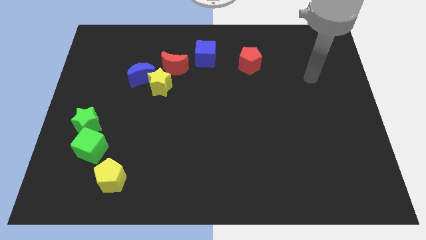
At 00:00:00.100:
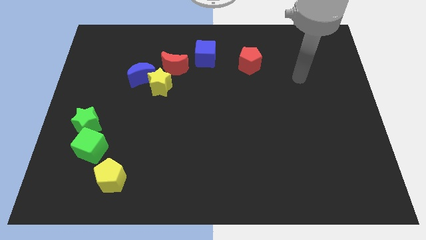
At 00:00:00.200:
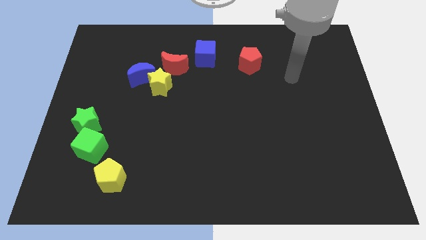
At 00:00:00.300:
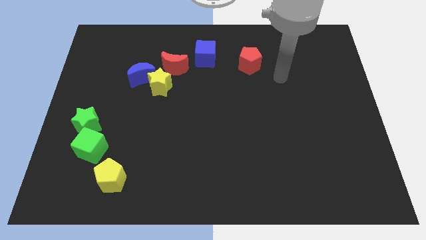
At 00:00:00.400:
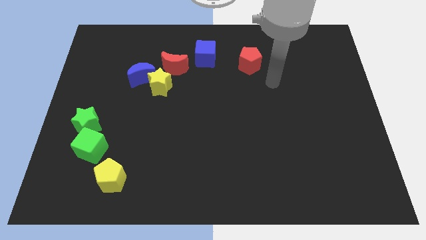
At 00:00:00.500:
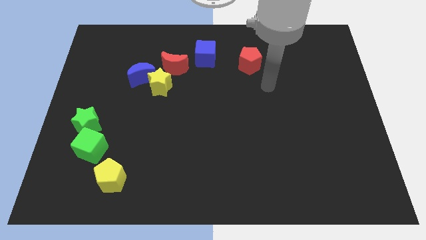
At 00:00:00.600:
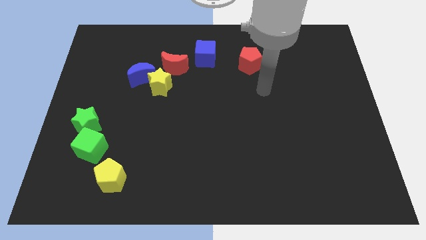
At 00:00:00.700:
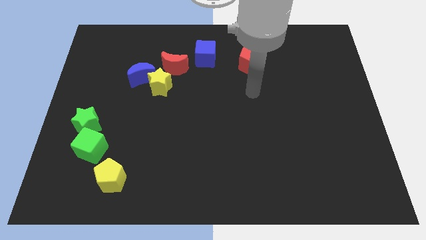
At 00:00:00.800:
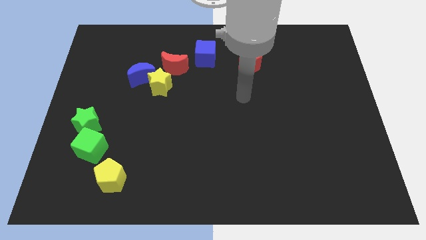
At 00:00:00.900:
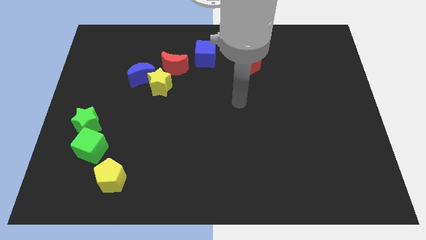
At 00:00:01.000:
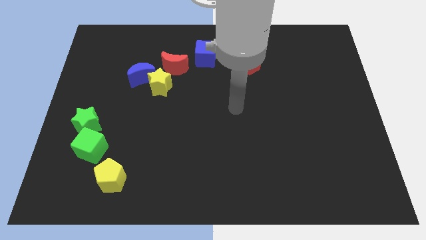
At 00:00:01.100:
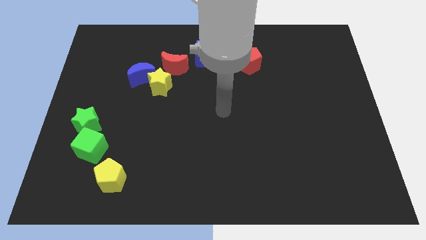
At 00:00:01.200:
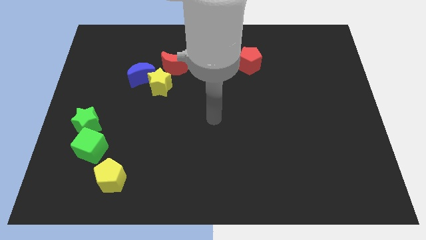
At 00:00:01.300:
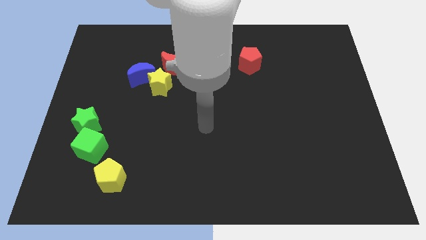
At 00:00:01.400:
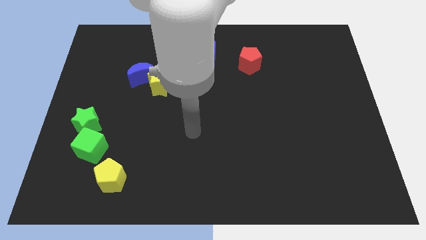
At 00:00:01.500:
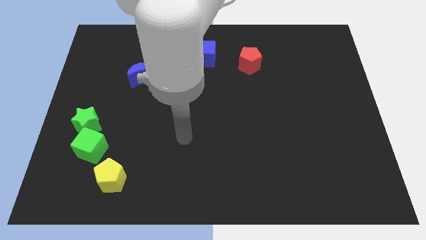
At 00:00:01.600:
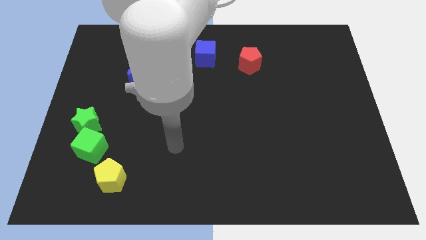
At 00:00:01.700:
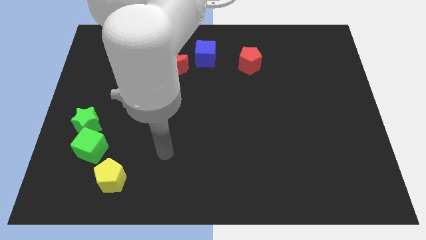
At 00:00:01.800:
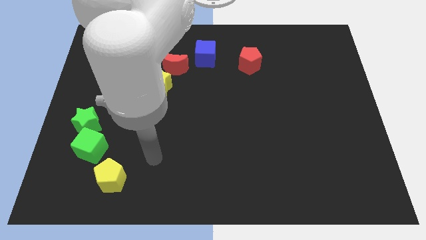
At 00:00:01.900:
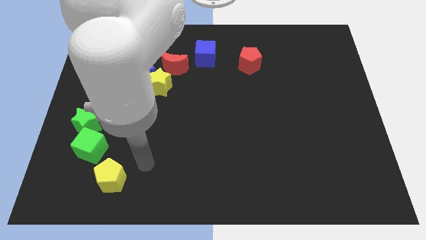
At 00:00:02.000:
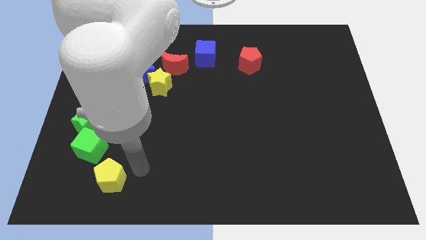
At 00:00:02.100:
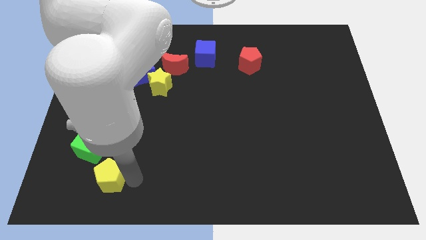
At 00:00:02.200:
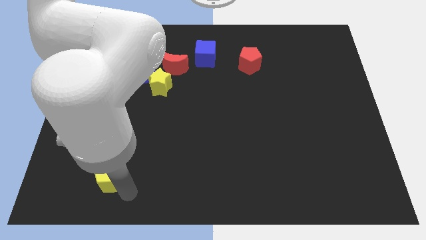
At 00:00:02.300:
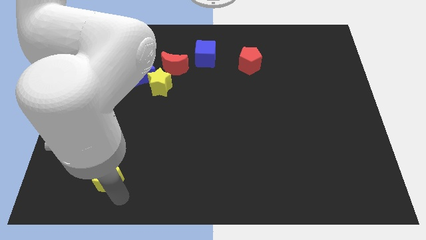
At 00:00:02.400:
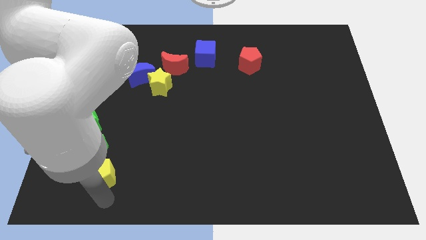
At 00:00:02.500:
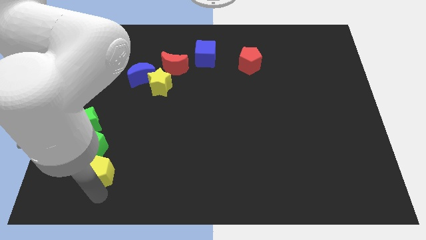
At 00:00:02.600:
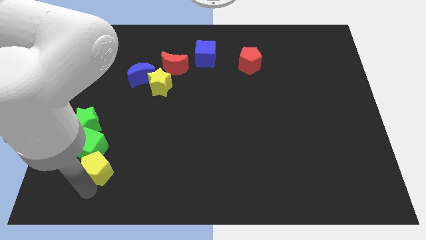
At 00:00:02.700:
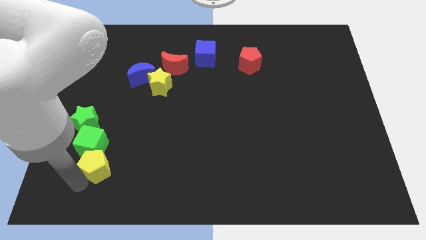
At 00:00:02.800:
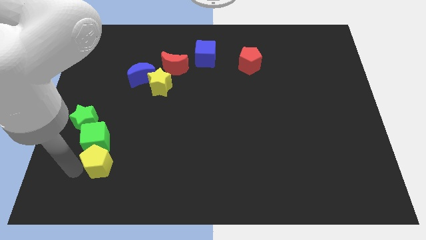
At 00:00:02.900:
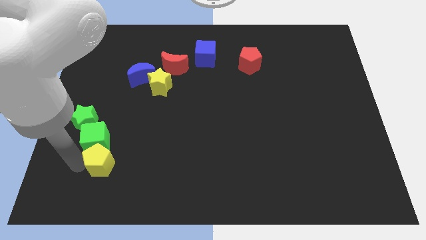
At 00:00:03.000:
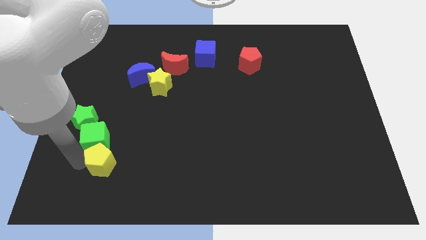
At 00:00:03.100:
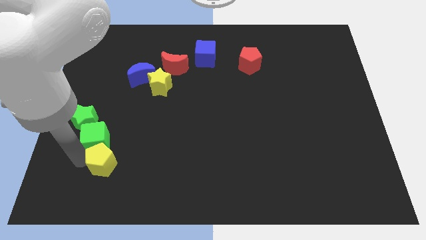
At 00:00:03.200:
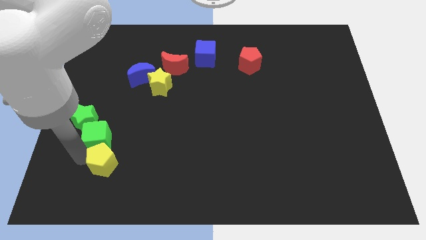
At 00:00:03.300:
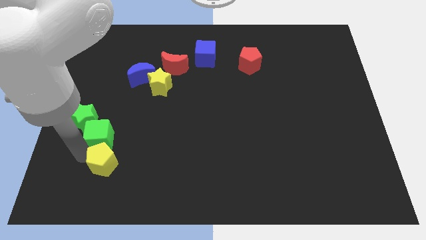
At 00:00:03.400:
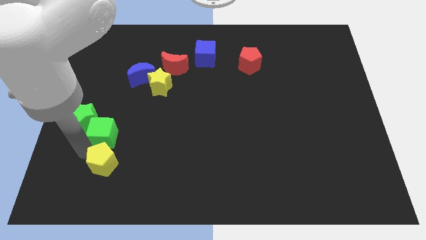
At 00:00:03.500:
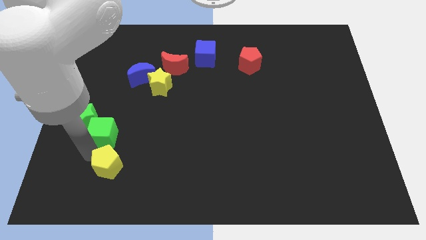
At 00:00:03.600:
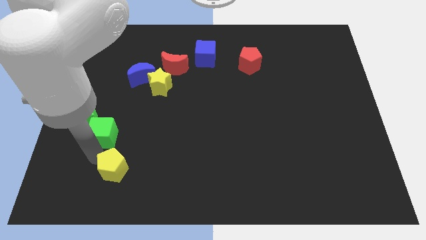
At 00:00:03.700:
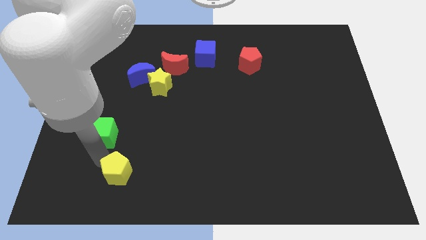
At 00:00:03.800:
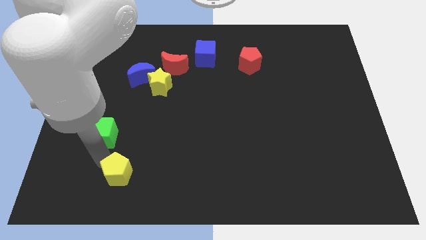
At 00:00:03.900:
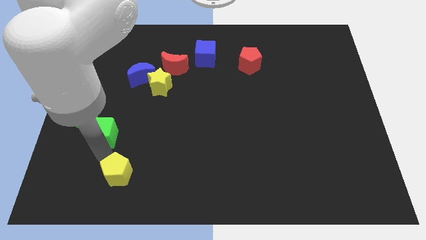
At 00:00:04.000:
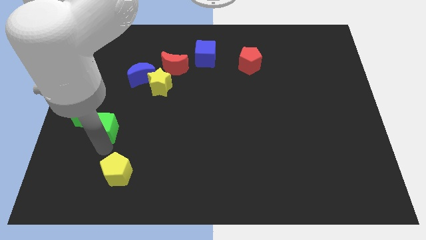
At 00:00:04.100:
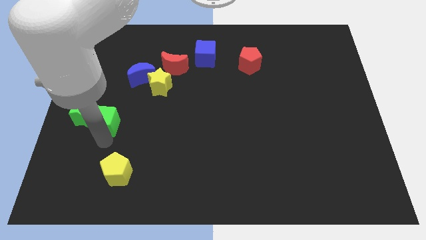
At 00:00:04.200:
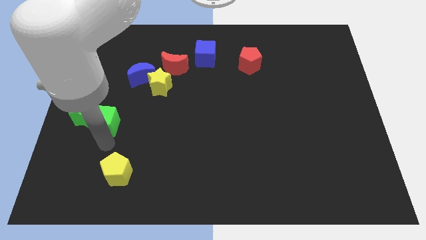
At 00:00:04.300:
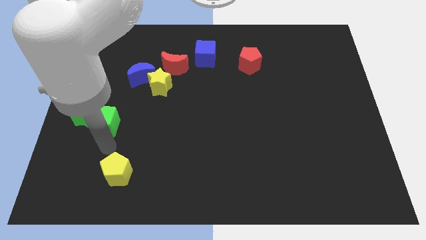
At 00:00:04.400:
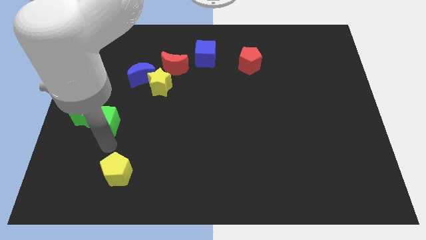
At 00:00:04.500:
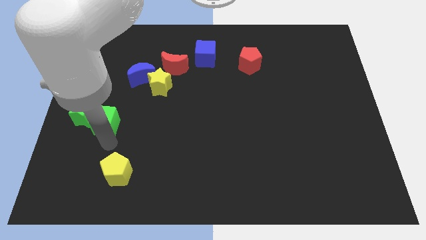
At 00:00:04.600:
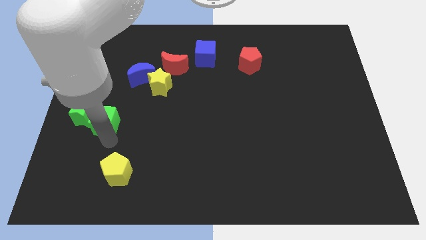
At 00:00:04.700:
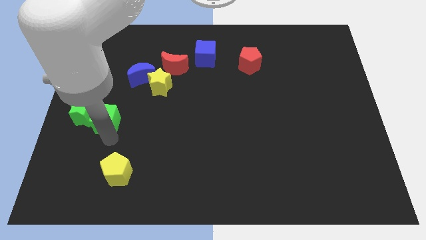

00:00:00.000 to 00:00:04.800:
push the green cube a bit up

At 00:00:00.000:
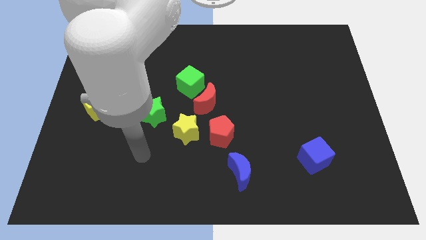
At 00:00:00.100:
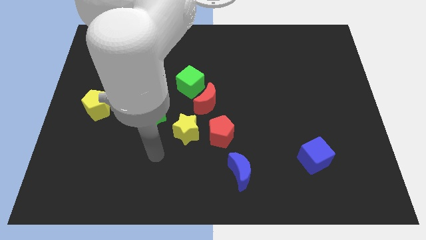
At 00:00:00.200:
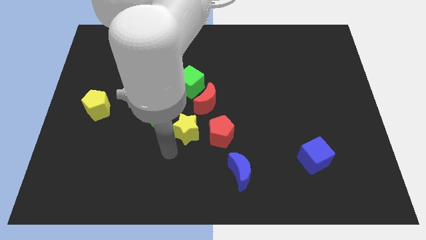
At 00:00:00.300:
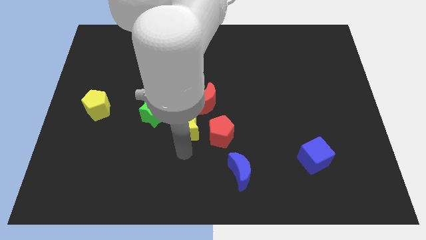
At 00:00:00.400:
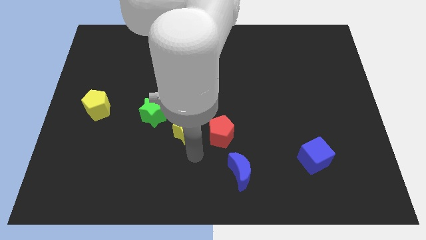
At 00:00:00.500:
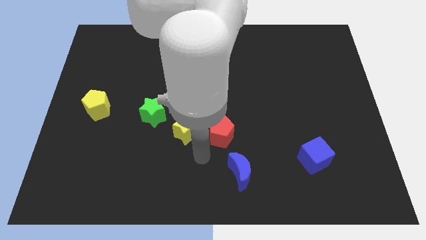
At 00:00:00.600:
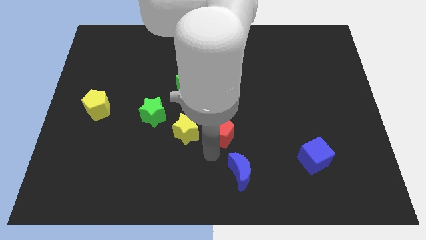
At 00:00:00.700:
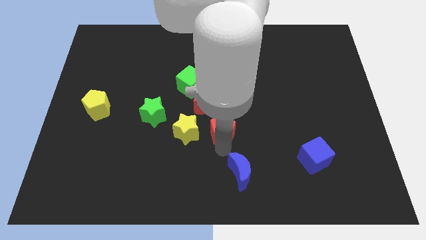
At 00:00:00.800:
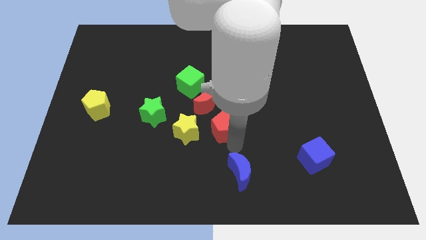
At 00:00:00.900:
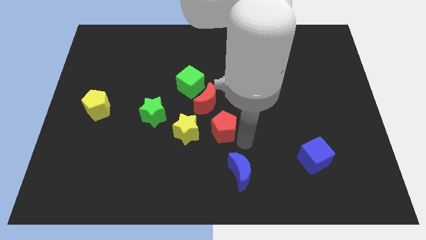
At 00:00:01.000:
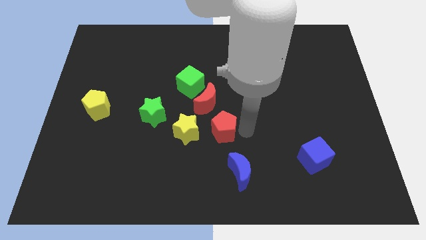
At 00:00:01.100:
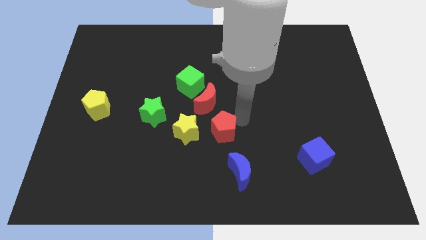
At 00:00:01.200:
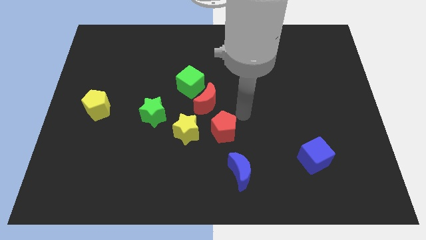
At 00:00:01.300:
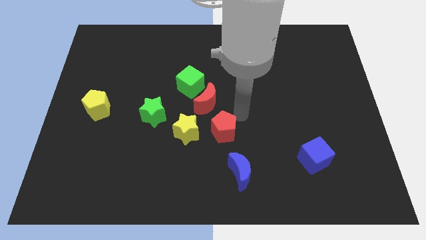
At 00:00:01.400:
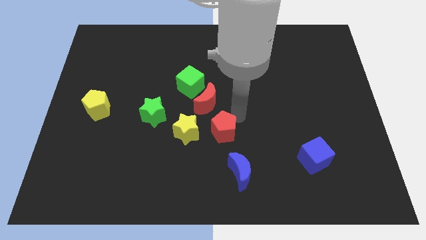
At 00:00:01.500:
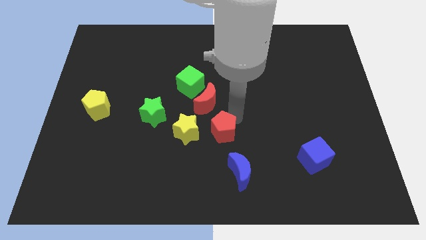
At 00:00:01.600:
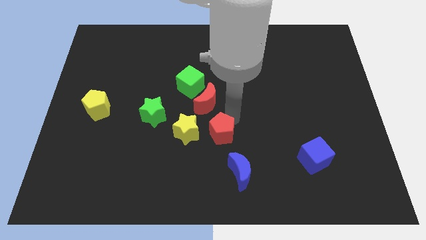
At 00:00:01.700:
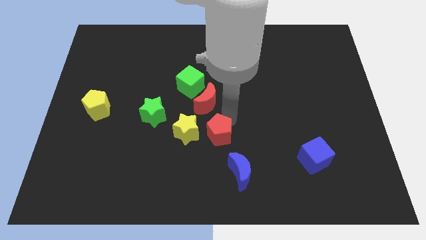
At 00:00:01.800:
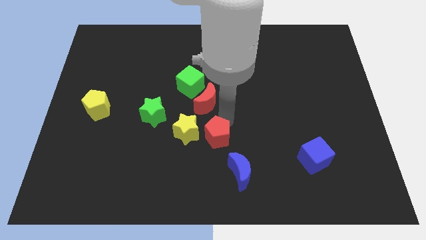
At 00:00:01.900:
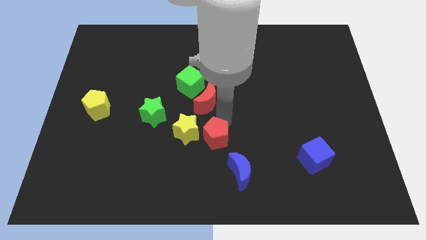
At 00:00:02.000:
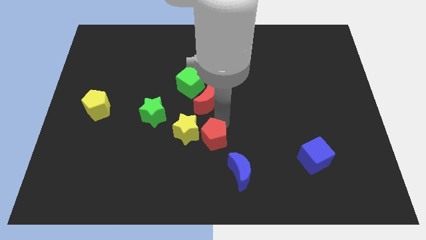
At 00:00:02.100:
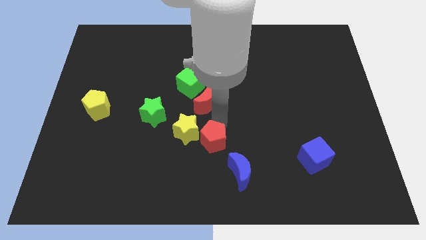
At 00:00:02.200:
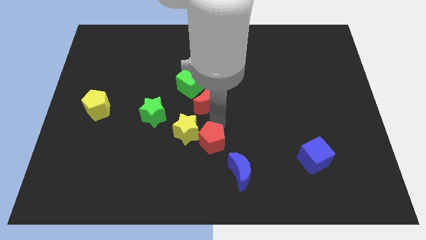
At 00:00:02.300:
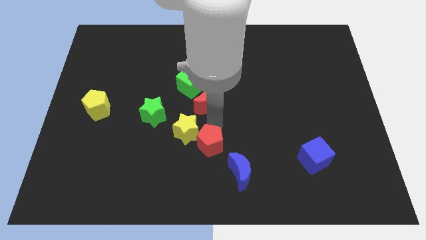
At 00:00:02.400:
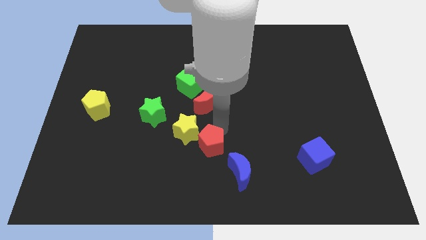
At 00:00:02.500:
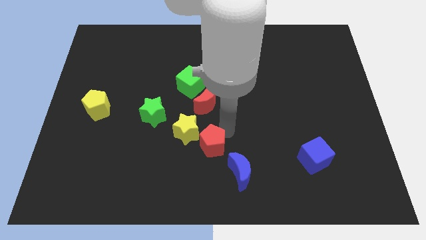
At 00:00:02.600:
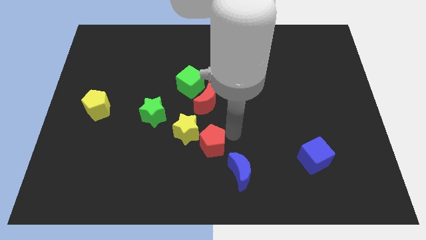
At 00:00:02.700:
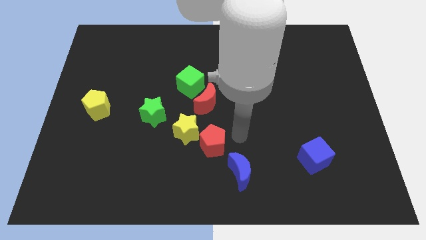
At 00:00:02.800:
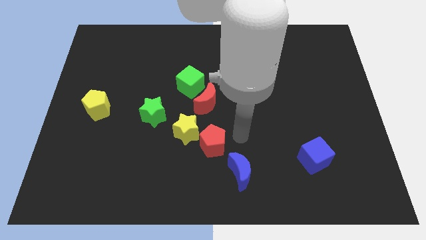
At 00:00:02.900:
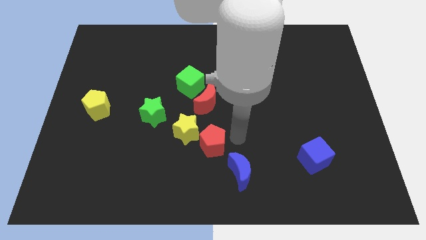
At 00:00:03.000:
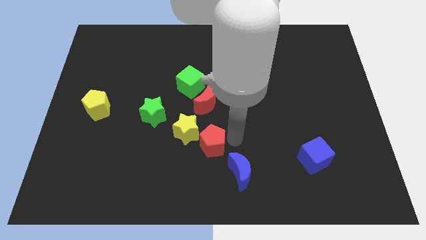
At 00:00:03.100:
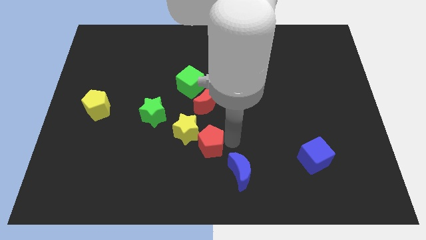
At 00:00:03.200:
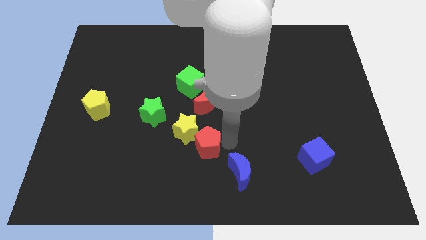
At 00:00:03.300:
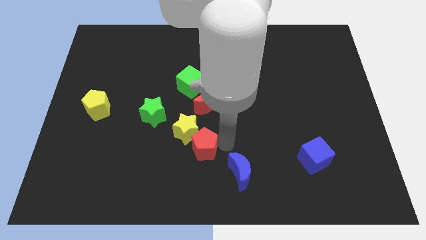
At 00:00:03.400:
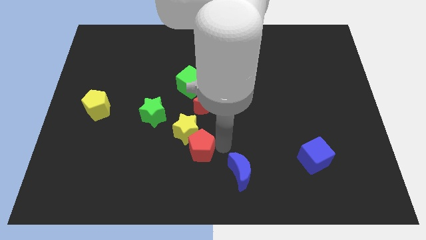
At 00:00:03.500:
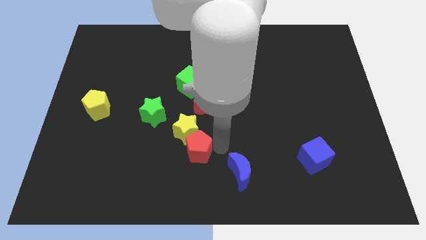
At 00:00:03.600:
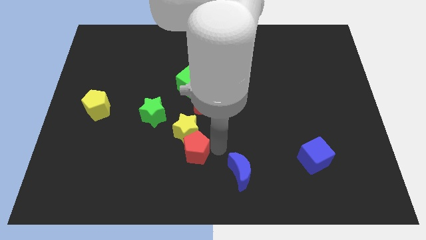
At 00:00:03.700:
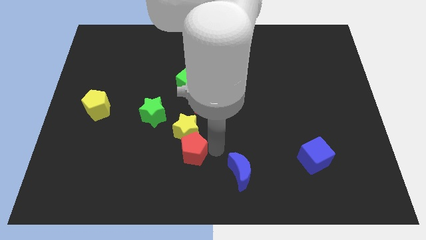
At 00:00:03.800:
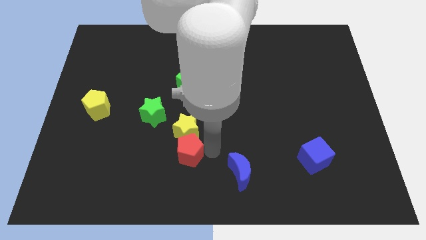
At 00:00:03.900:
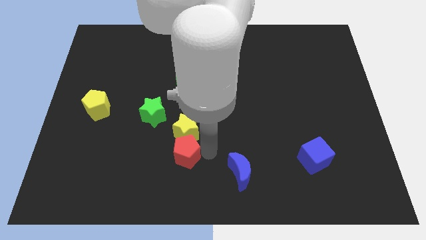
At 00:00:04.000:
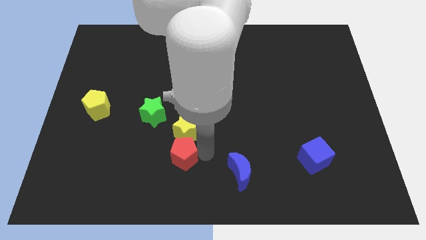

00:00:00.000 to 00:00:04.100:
slide the red pentagon a little bit to the left
